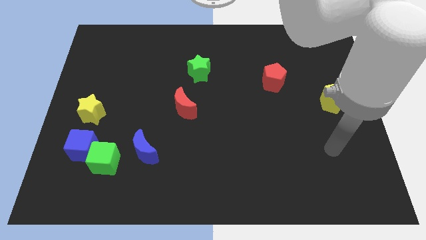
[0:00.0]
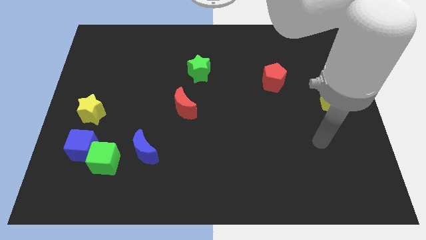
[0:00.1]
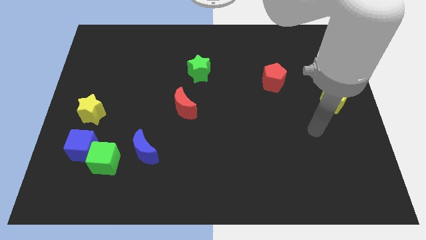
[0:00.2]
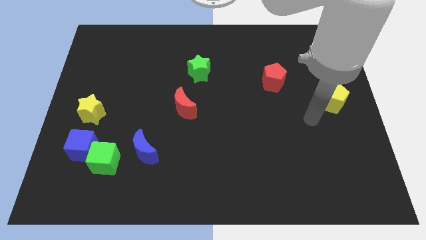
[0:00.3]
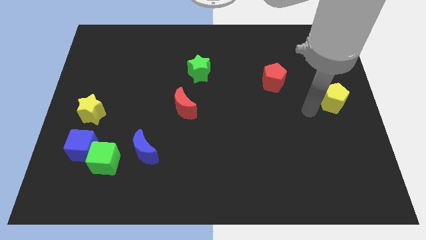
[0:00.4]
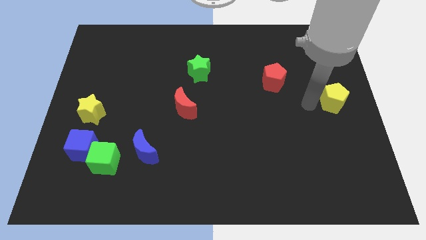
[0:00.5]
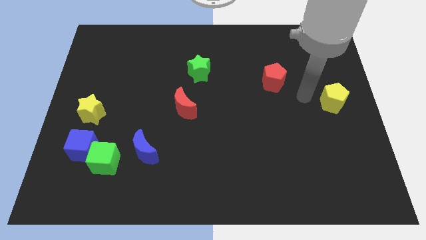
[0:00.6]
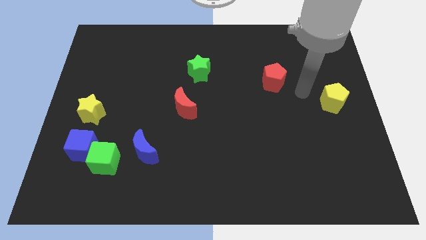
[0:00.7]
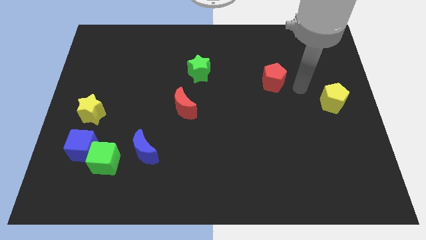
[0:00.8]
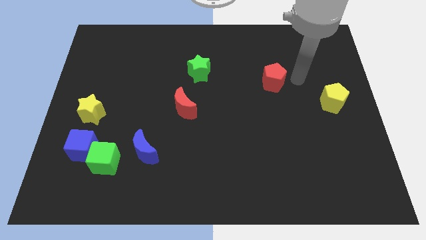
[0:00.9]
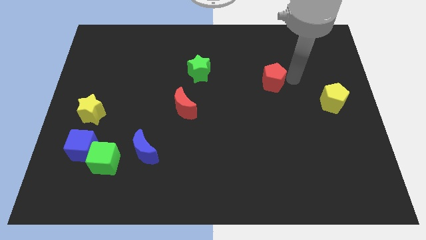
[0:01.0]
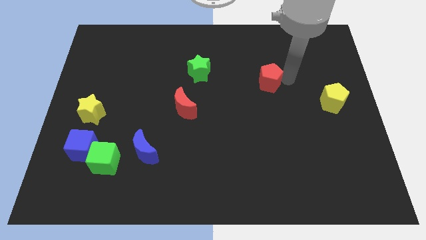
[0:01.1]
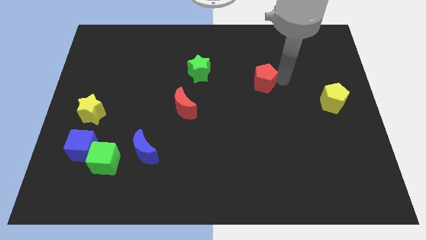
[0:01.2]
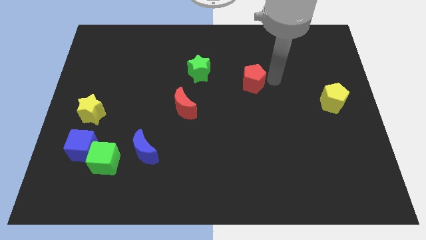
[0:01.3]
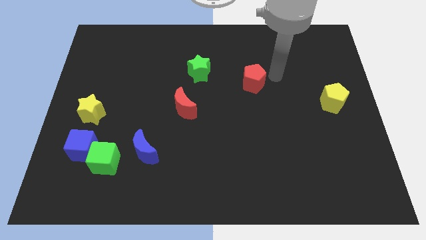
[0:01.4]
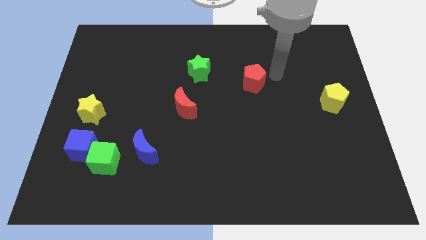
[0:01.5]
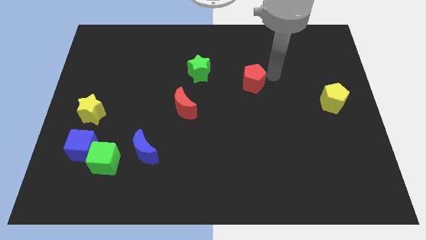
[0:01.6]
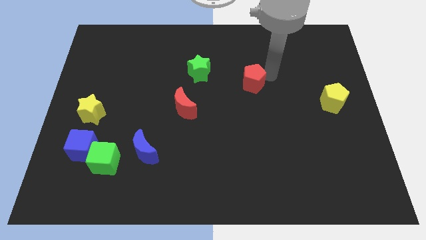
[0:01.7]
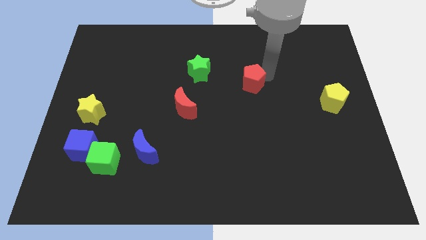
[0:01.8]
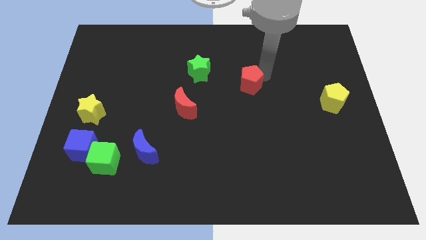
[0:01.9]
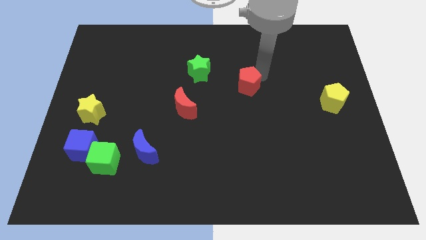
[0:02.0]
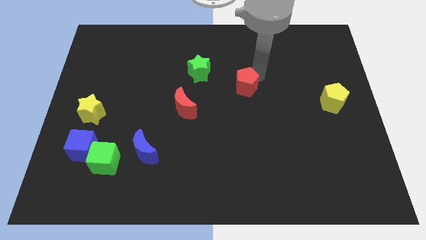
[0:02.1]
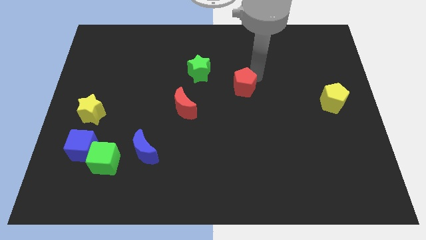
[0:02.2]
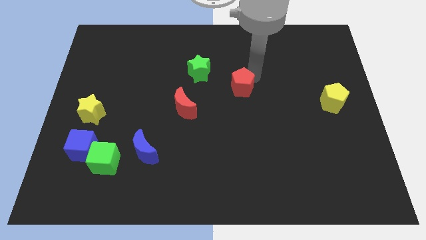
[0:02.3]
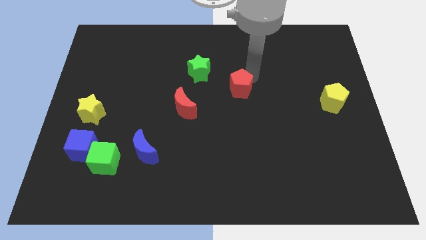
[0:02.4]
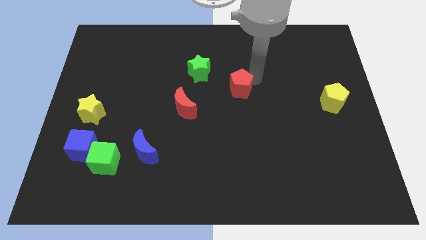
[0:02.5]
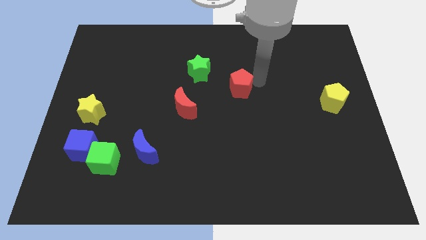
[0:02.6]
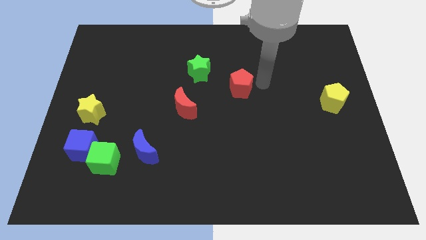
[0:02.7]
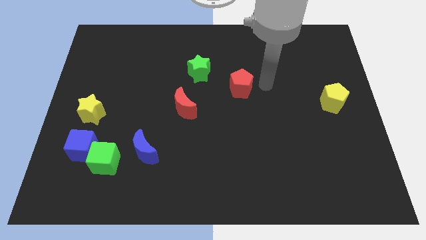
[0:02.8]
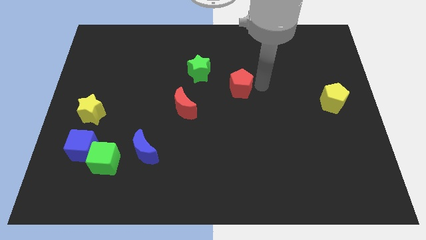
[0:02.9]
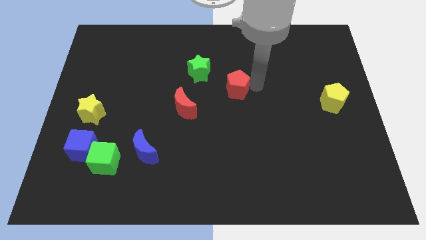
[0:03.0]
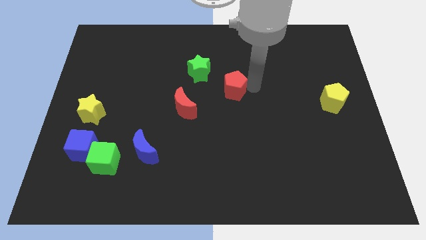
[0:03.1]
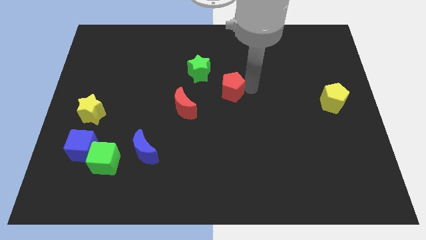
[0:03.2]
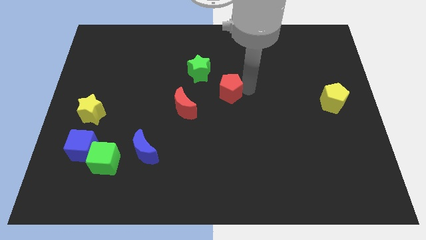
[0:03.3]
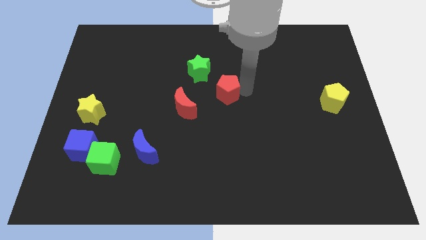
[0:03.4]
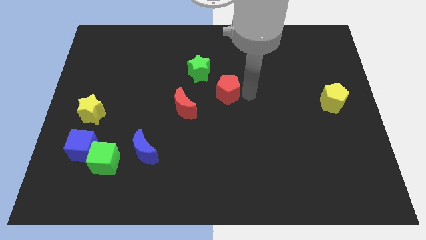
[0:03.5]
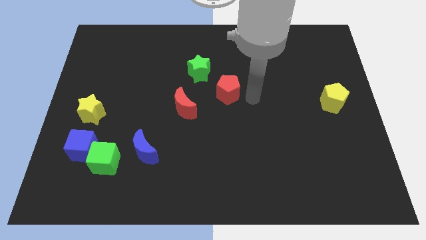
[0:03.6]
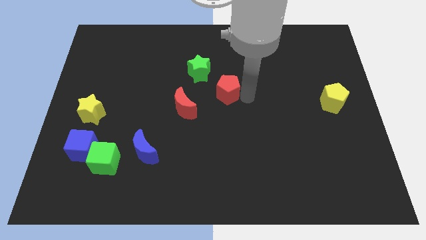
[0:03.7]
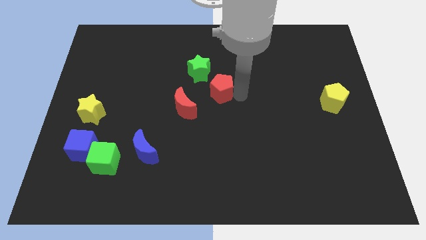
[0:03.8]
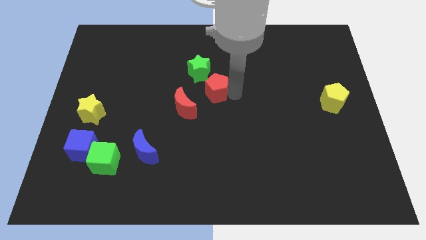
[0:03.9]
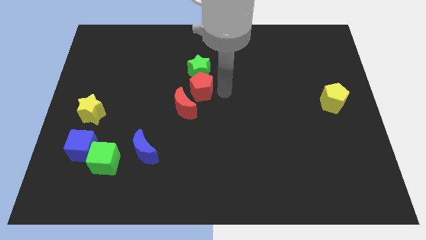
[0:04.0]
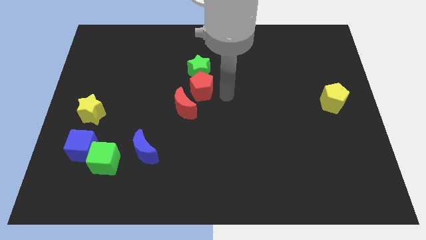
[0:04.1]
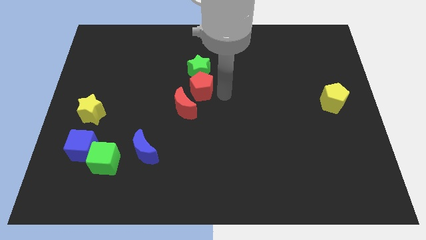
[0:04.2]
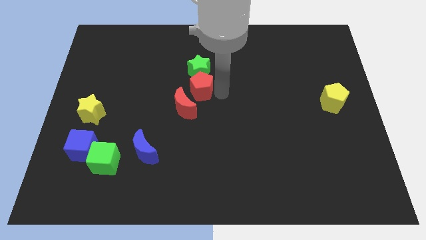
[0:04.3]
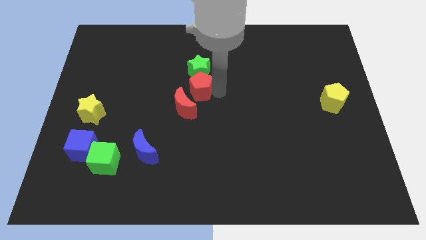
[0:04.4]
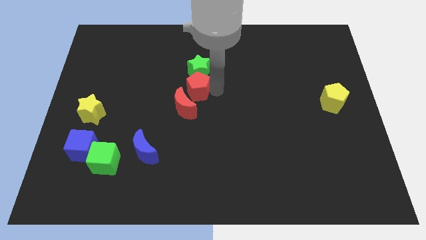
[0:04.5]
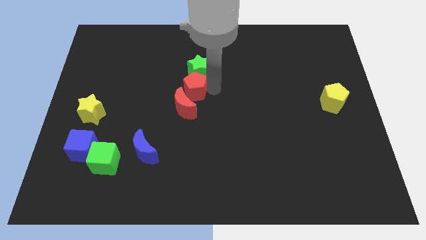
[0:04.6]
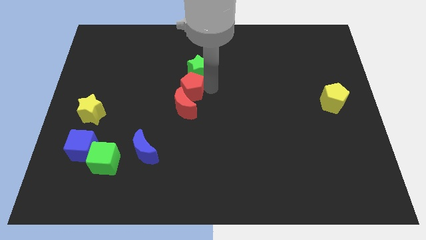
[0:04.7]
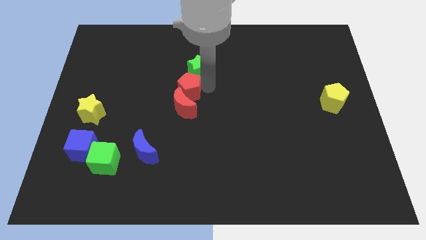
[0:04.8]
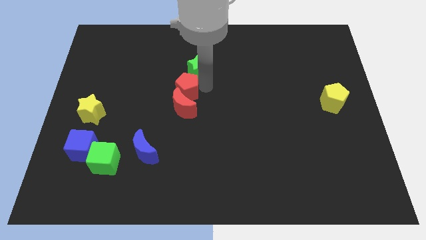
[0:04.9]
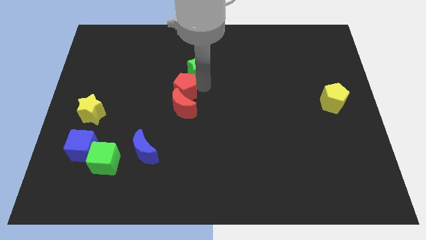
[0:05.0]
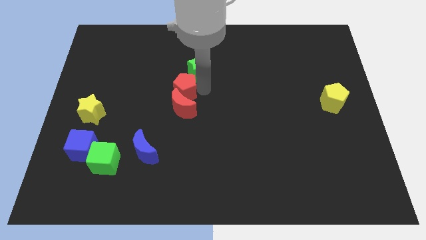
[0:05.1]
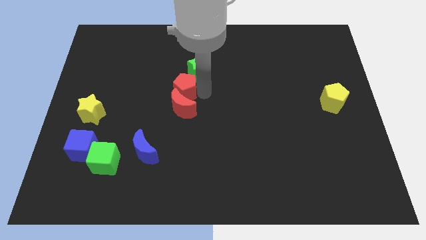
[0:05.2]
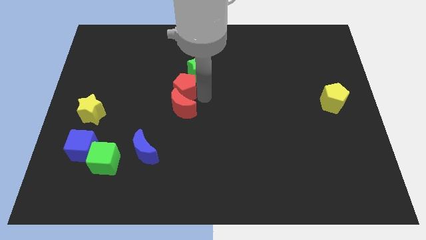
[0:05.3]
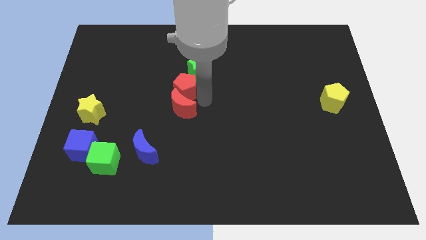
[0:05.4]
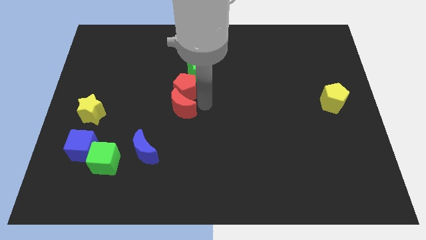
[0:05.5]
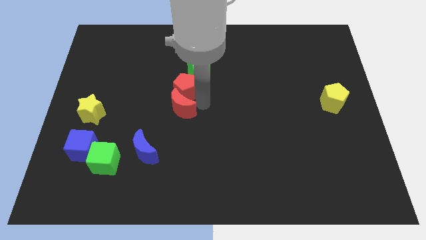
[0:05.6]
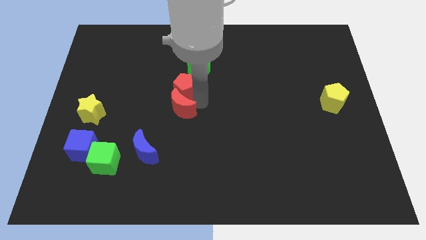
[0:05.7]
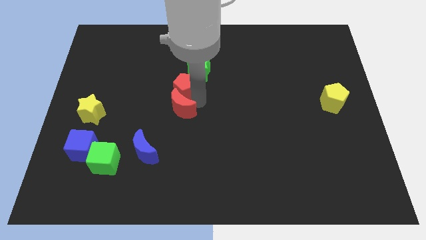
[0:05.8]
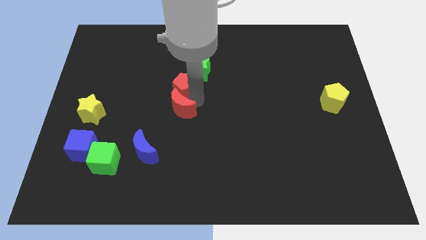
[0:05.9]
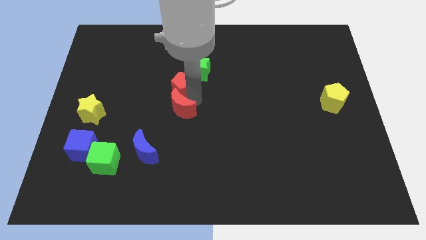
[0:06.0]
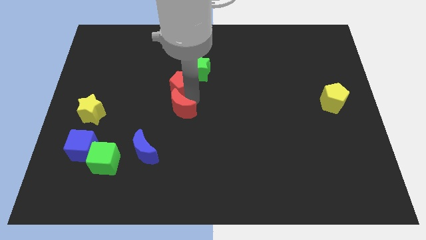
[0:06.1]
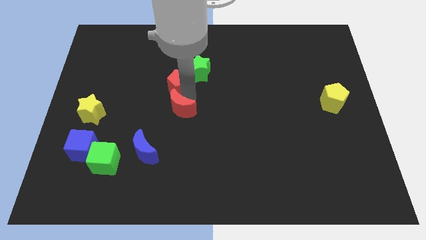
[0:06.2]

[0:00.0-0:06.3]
slide the red pentagon just left of the green star
